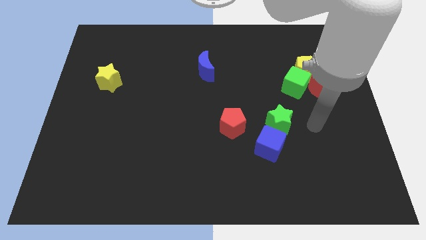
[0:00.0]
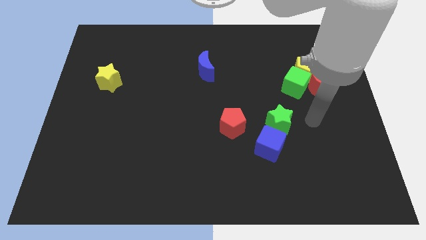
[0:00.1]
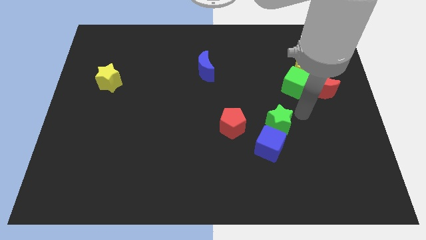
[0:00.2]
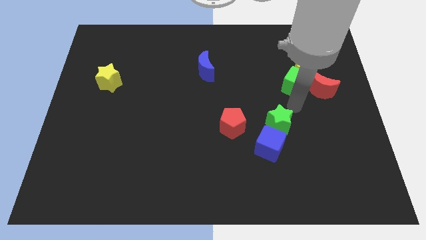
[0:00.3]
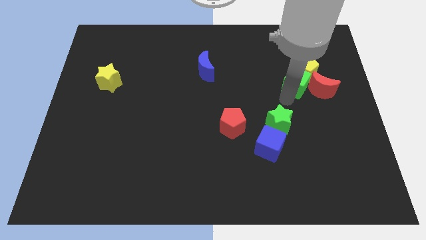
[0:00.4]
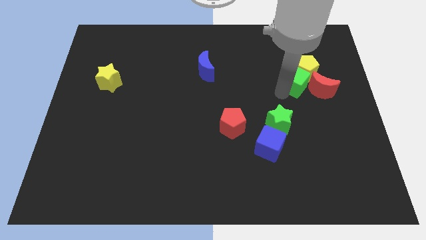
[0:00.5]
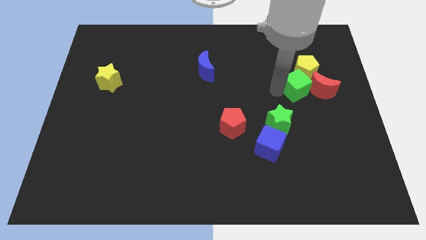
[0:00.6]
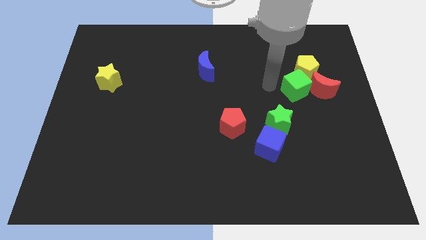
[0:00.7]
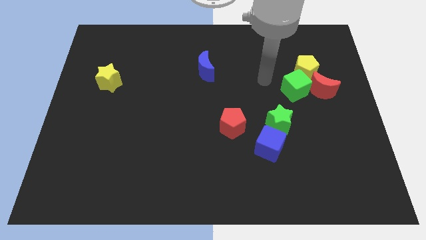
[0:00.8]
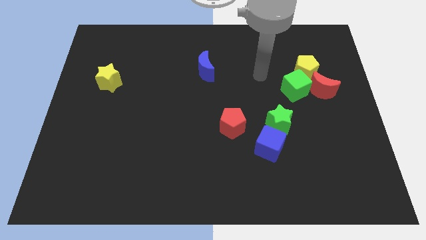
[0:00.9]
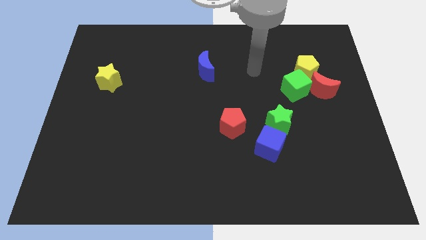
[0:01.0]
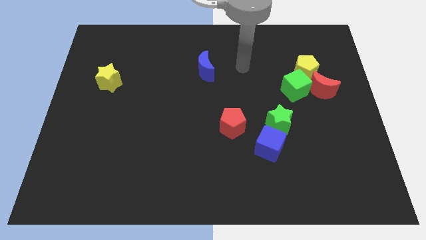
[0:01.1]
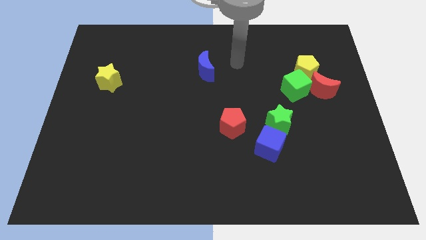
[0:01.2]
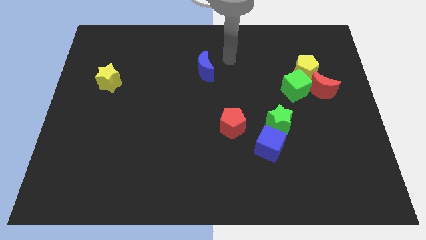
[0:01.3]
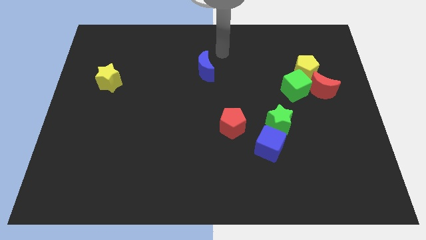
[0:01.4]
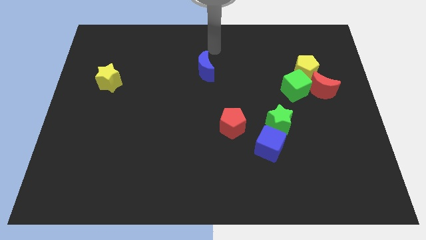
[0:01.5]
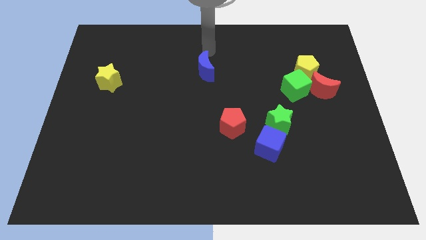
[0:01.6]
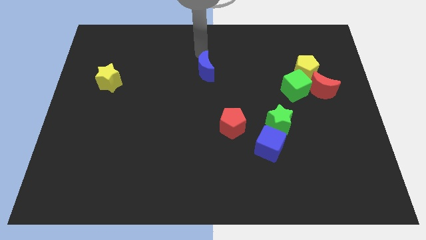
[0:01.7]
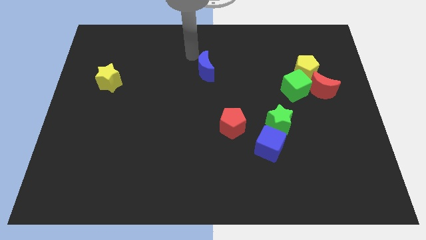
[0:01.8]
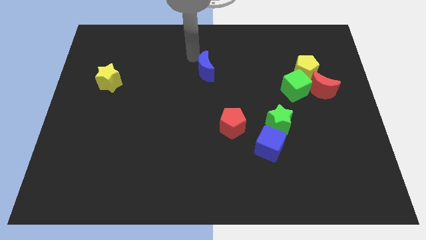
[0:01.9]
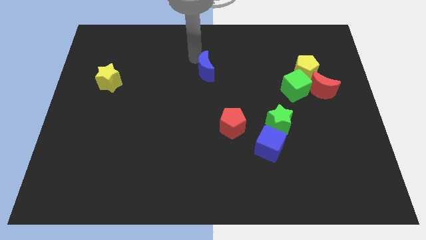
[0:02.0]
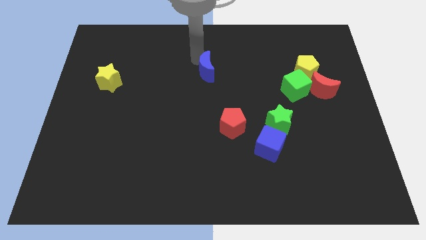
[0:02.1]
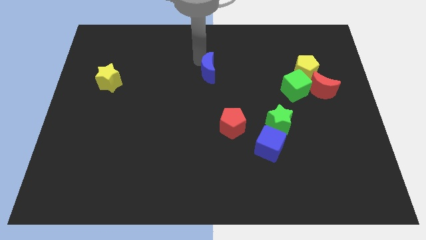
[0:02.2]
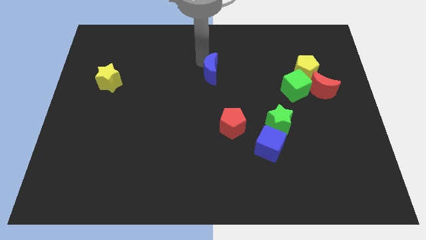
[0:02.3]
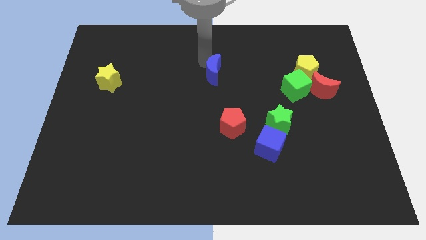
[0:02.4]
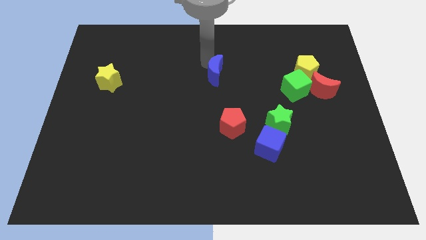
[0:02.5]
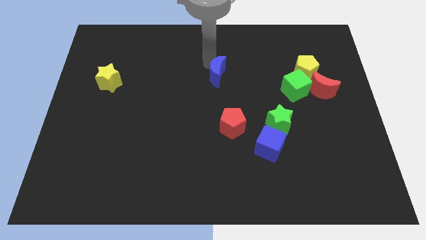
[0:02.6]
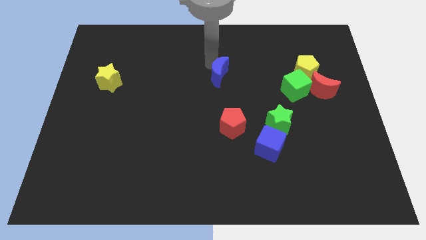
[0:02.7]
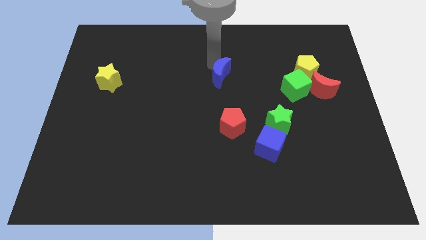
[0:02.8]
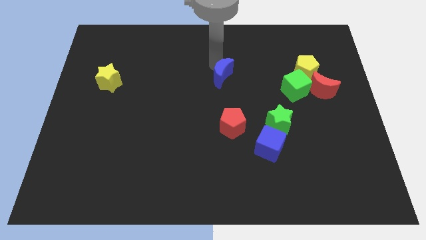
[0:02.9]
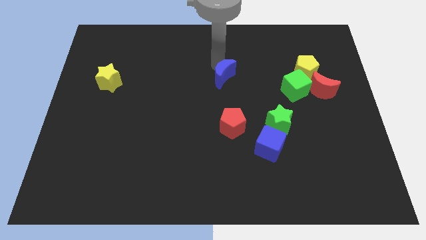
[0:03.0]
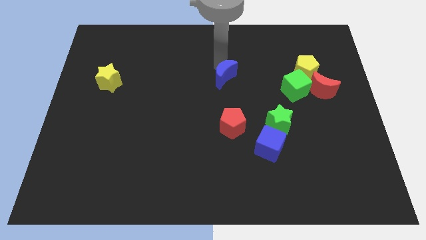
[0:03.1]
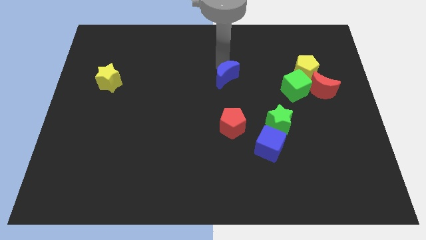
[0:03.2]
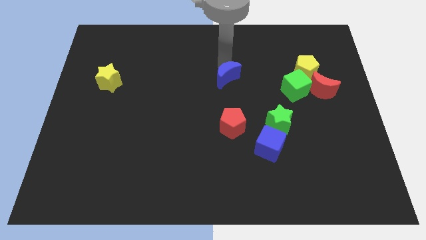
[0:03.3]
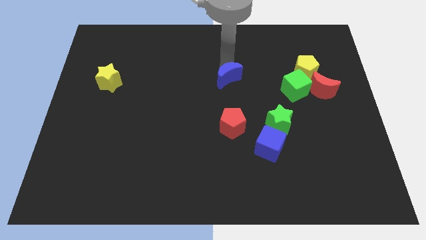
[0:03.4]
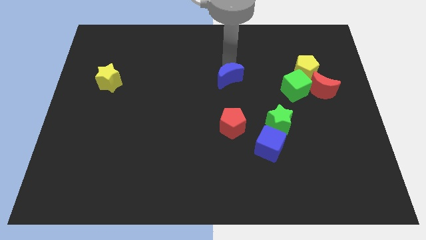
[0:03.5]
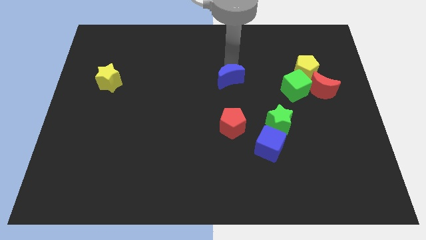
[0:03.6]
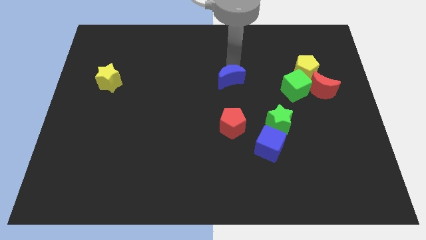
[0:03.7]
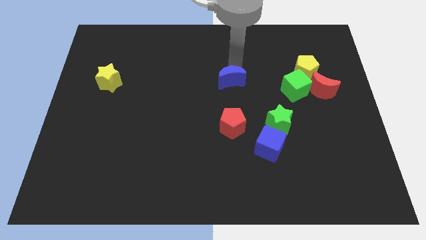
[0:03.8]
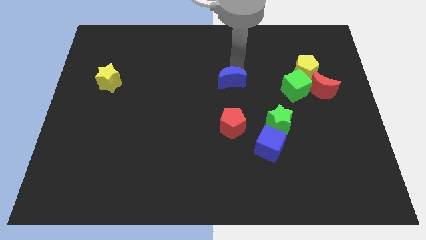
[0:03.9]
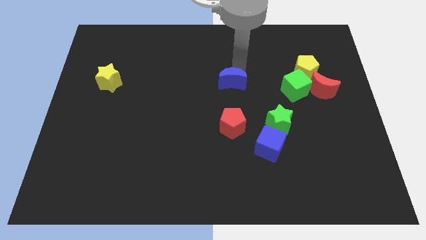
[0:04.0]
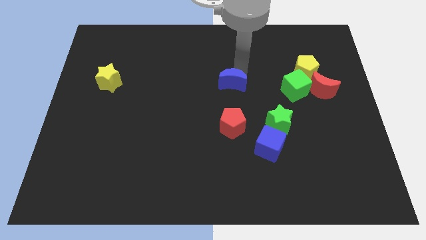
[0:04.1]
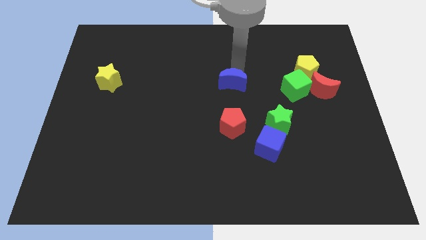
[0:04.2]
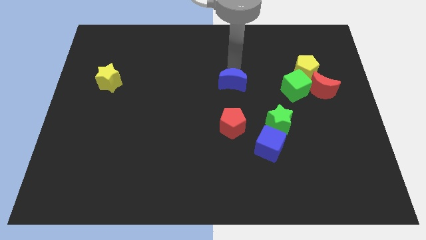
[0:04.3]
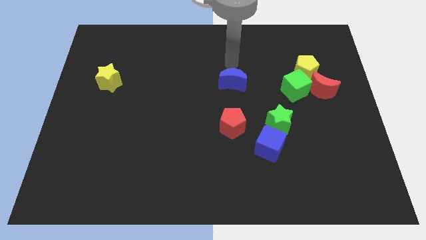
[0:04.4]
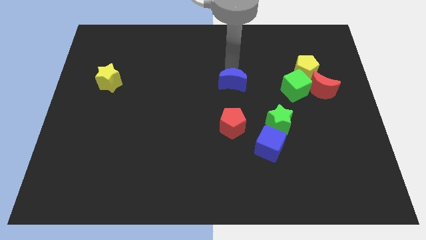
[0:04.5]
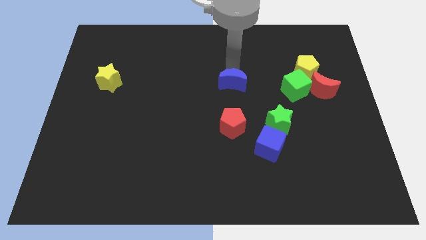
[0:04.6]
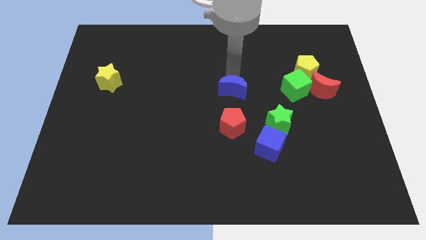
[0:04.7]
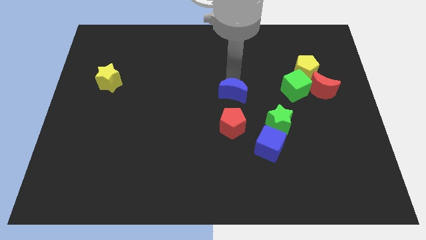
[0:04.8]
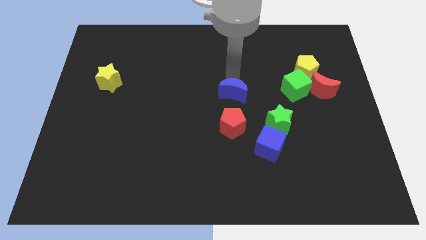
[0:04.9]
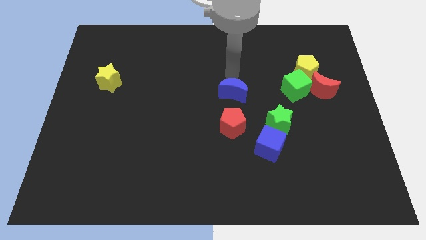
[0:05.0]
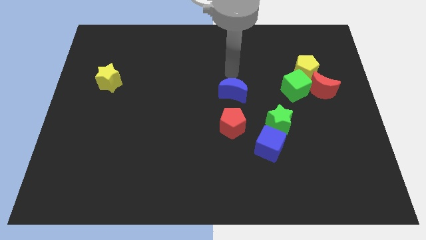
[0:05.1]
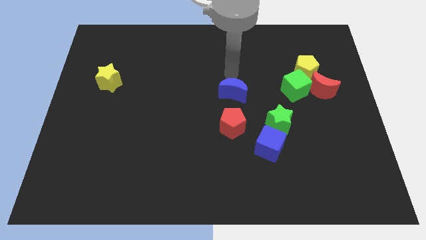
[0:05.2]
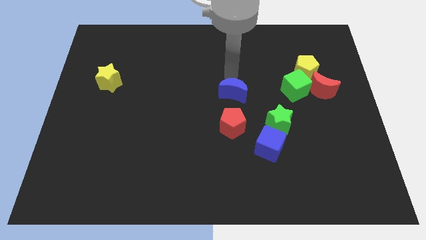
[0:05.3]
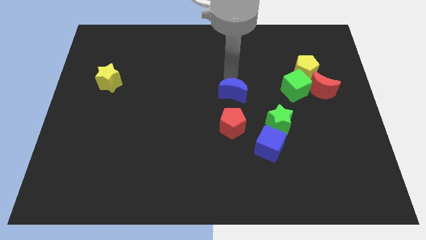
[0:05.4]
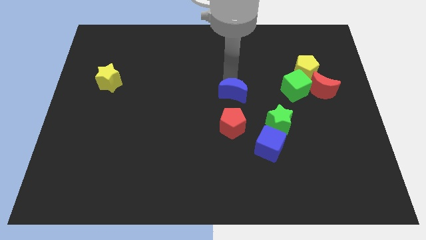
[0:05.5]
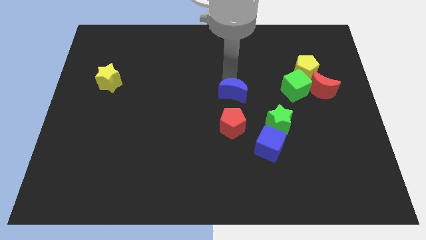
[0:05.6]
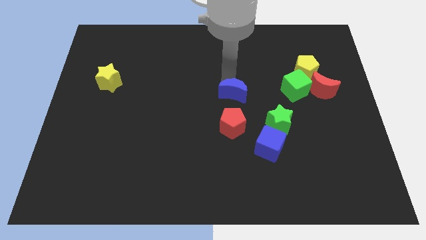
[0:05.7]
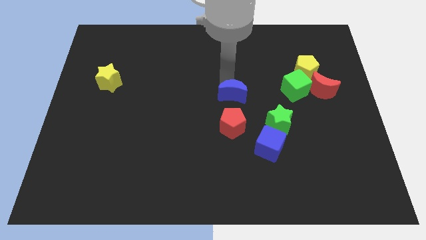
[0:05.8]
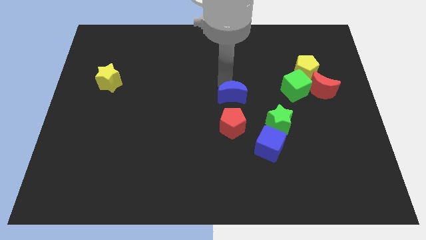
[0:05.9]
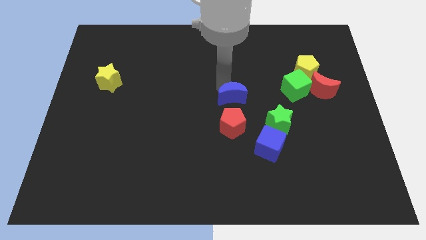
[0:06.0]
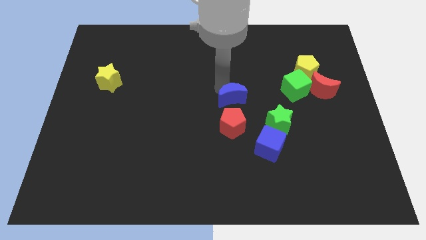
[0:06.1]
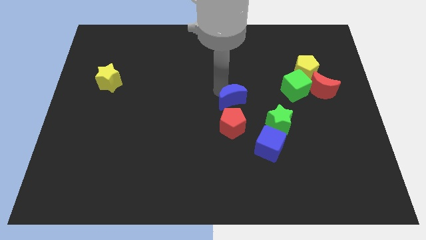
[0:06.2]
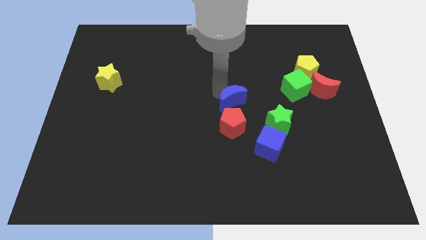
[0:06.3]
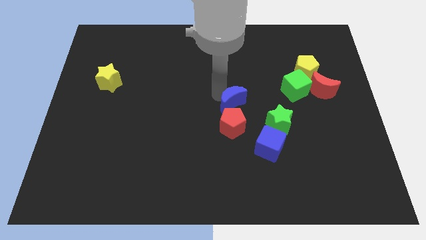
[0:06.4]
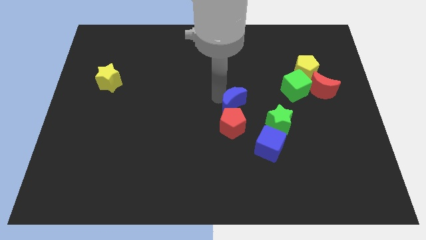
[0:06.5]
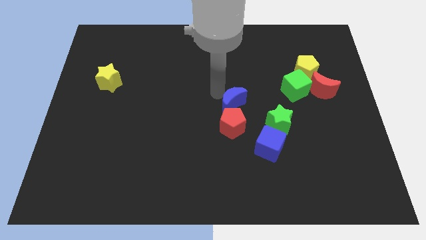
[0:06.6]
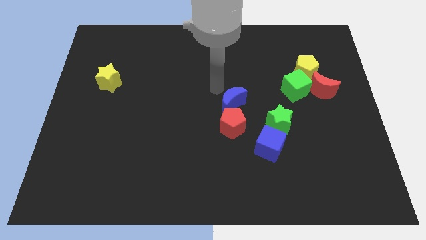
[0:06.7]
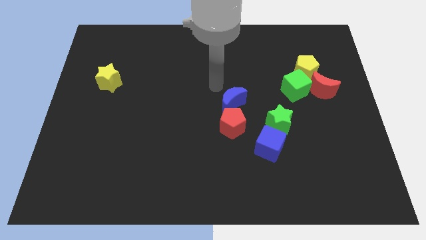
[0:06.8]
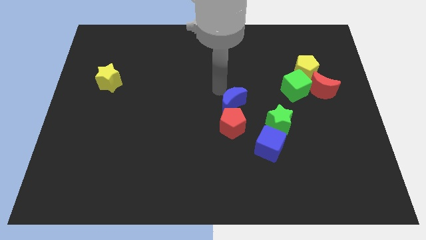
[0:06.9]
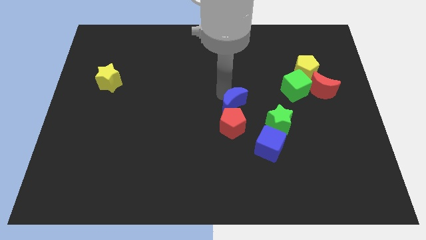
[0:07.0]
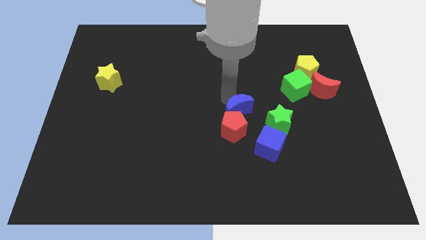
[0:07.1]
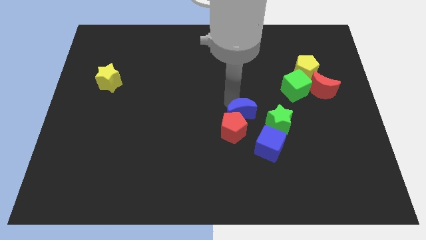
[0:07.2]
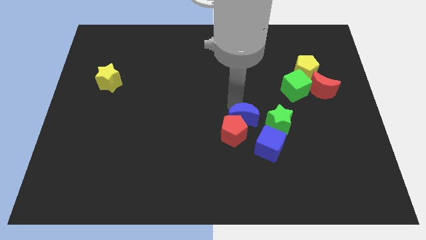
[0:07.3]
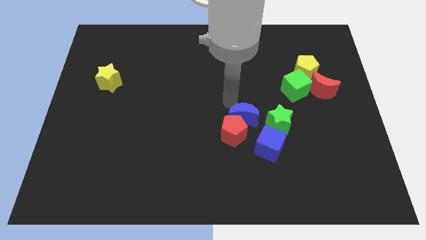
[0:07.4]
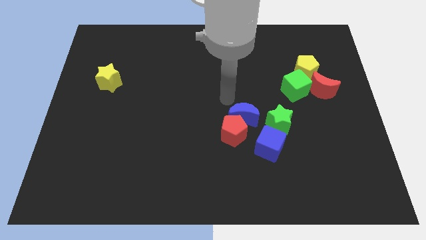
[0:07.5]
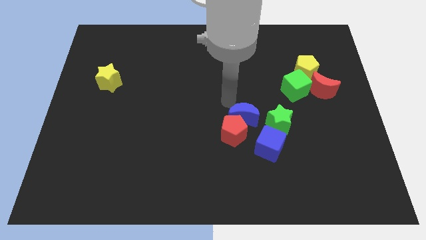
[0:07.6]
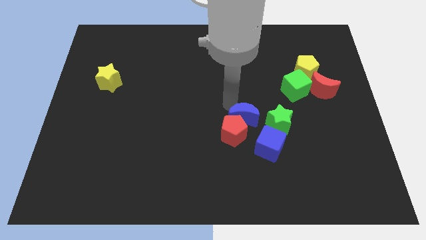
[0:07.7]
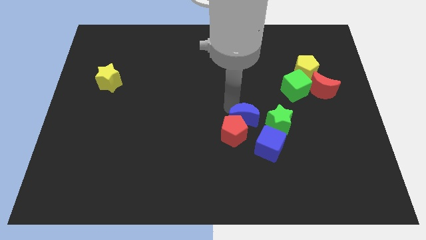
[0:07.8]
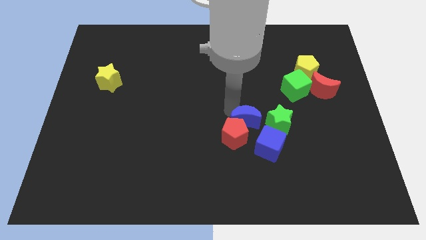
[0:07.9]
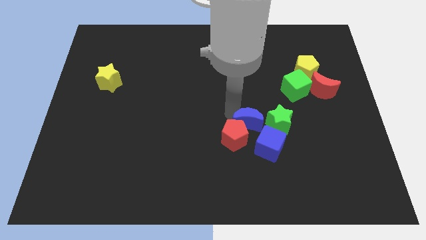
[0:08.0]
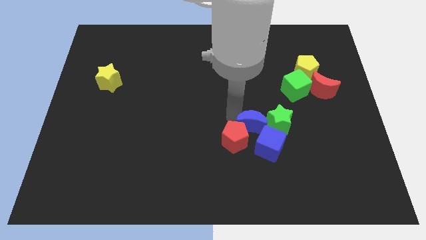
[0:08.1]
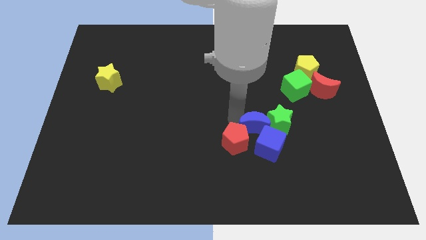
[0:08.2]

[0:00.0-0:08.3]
slide the blue moon close to the blue cube
